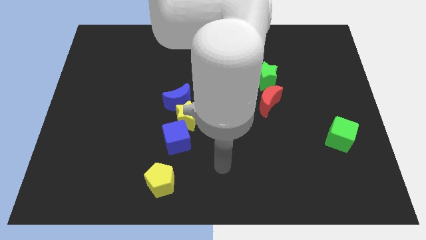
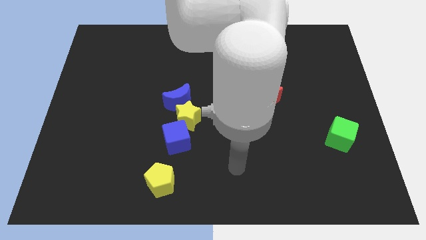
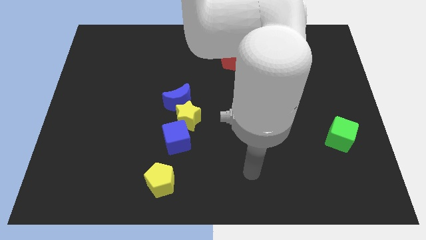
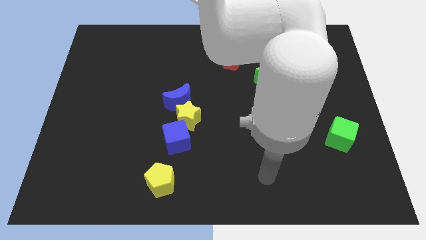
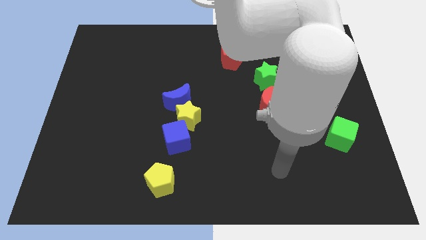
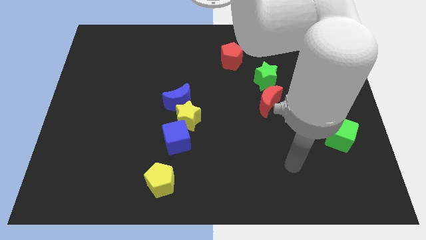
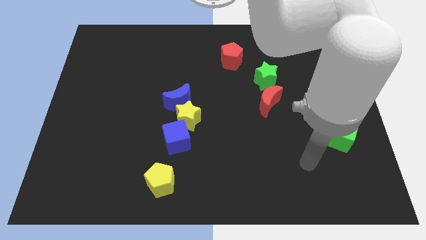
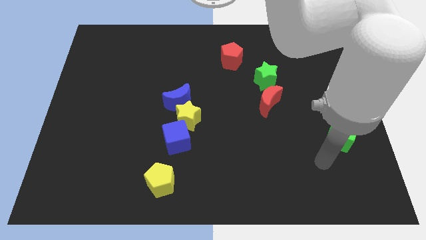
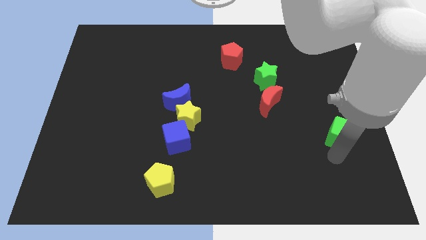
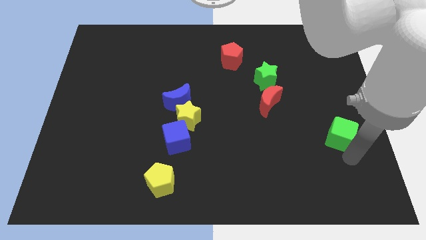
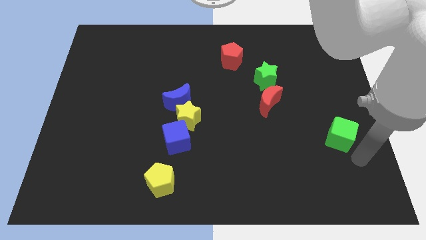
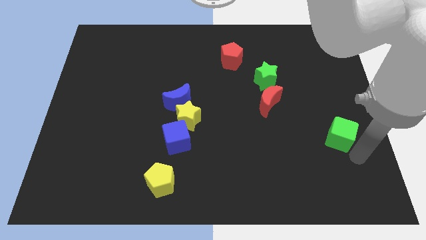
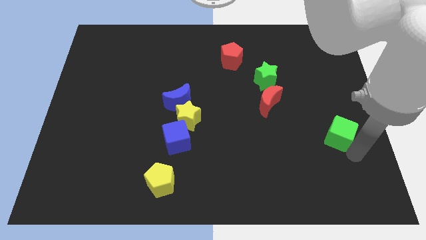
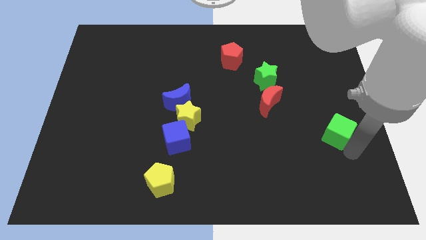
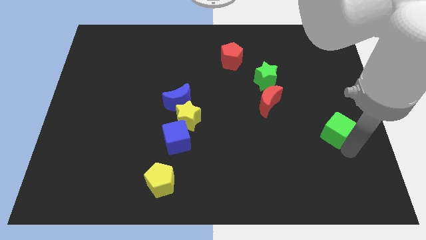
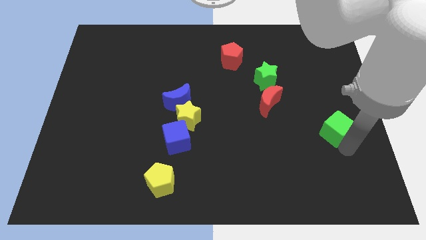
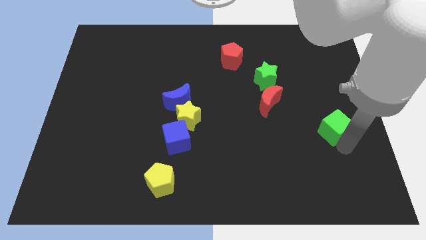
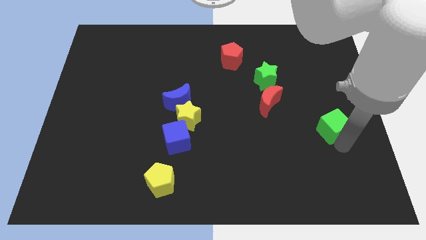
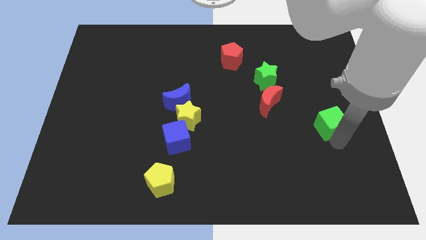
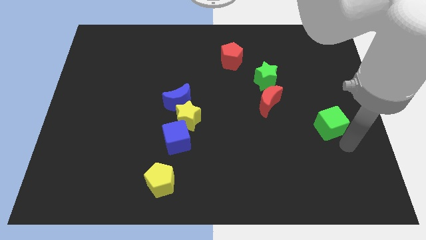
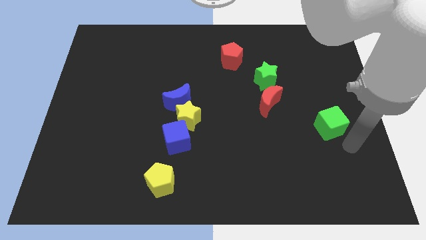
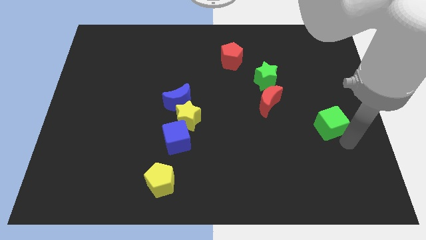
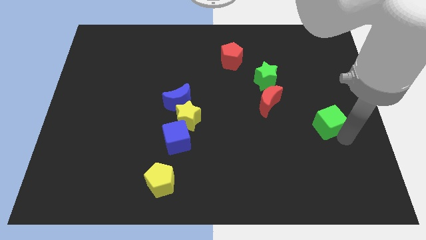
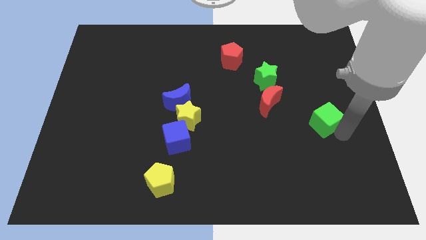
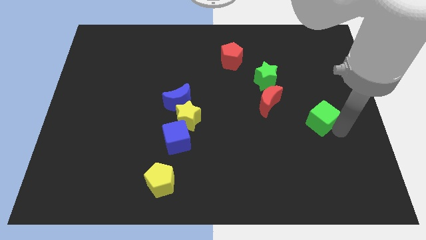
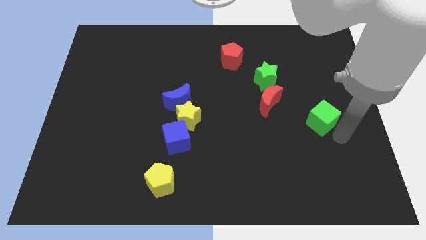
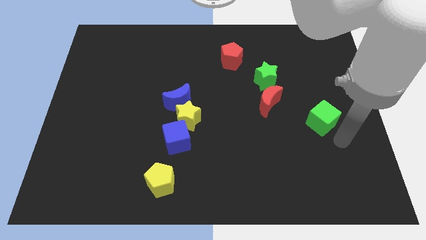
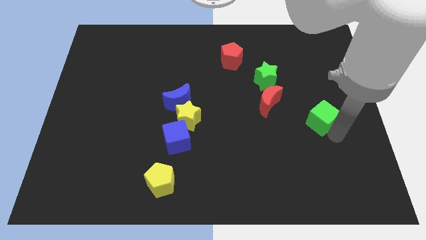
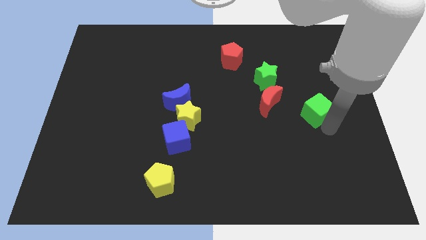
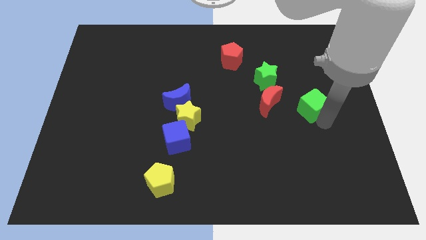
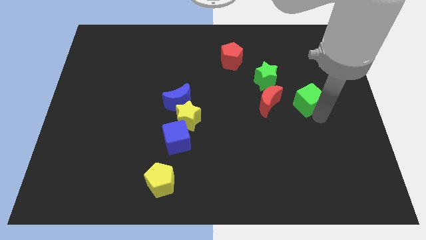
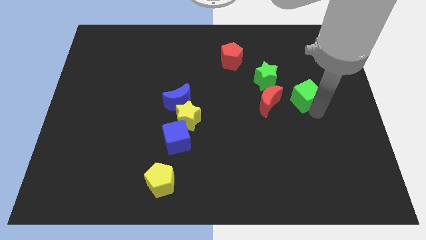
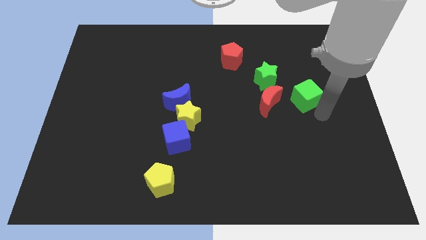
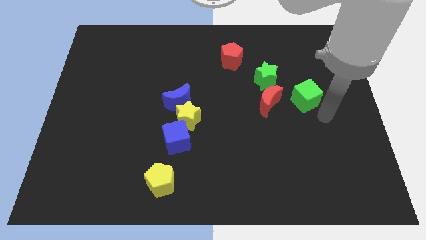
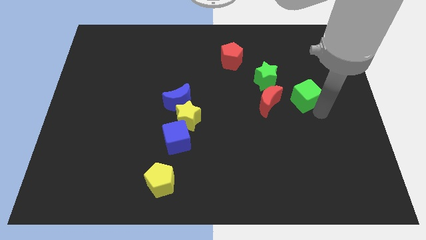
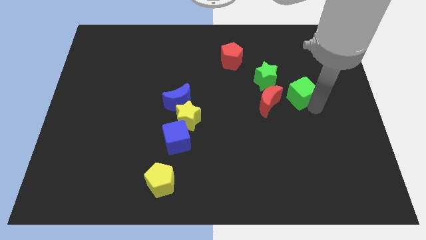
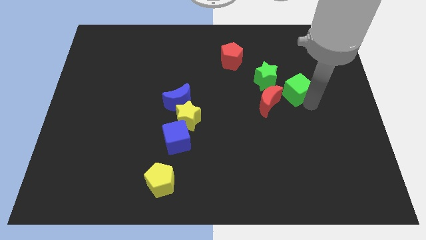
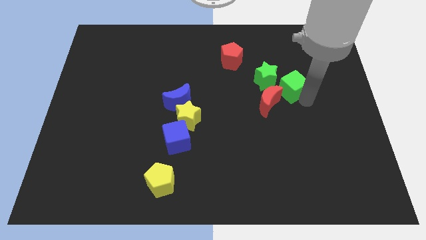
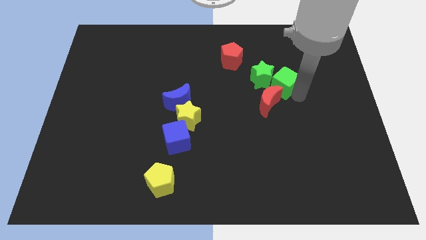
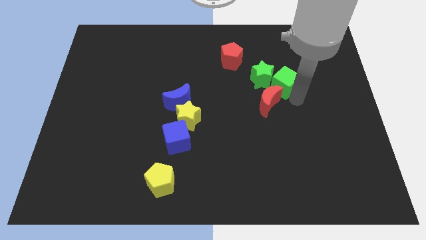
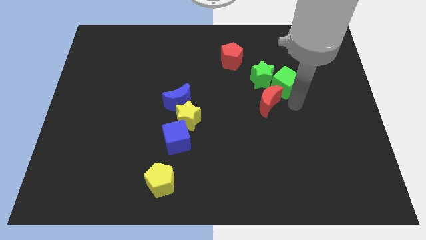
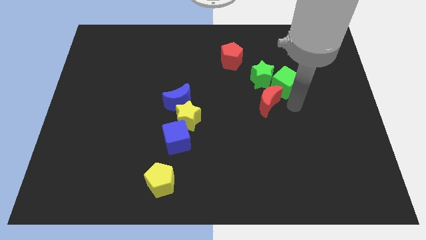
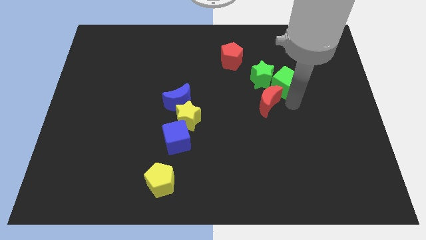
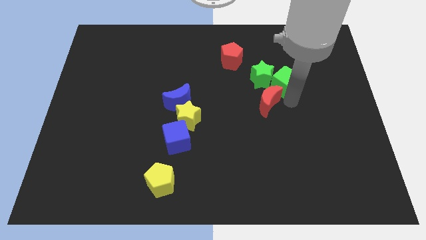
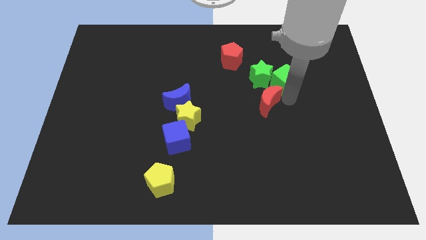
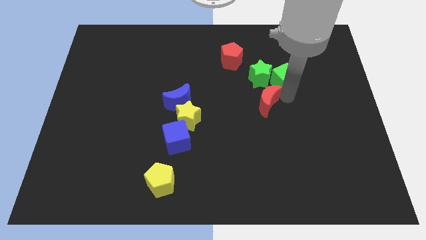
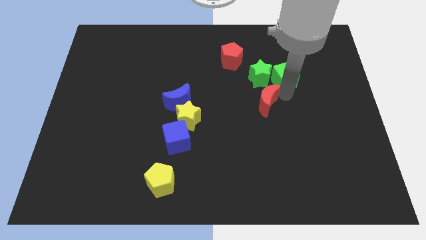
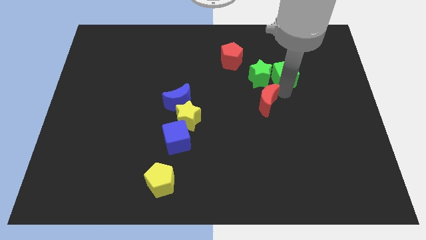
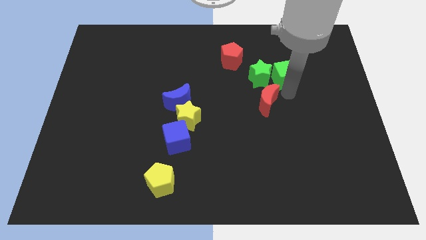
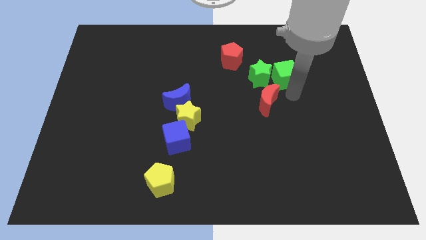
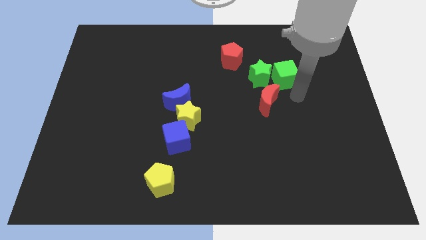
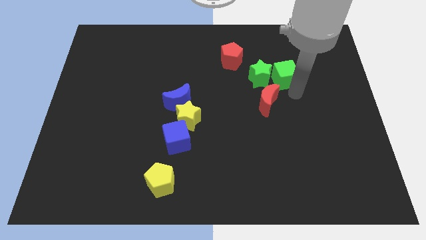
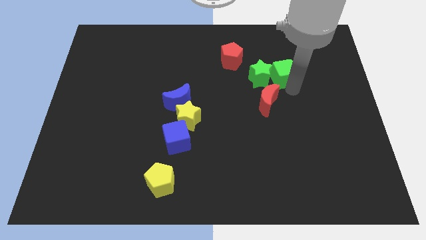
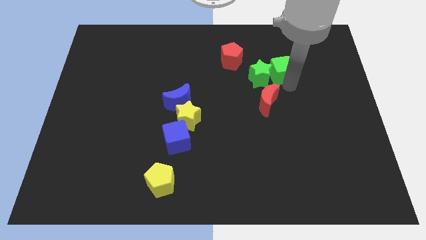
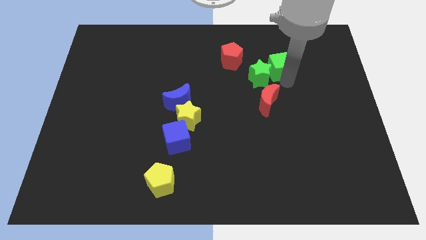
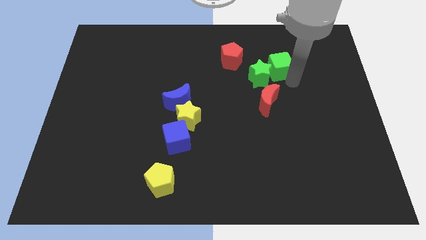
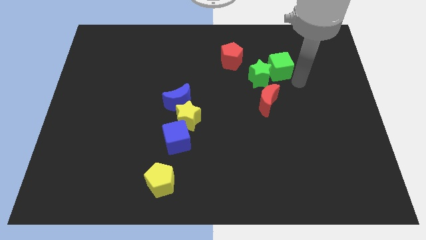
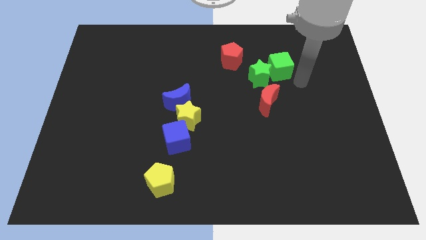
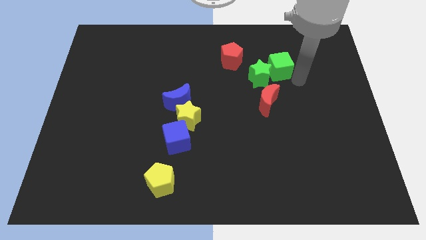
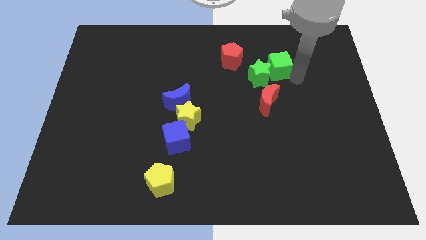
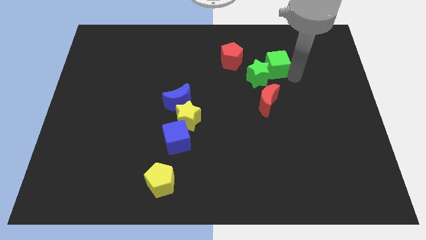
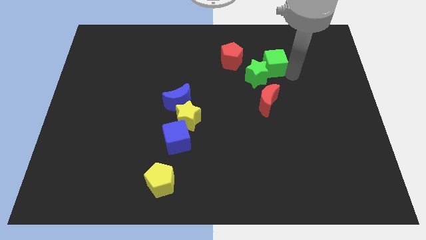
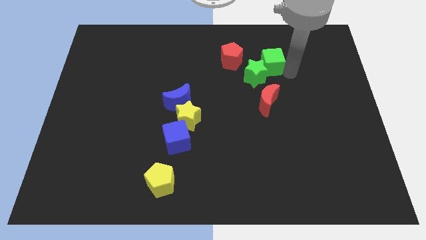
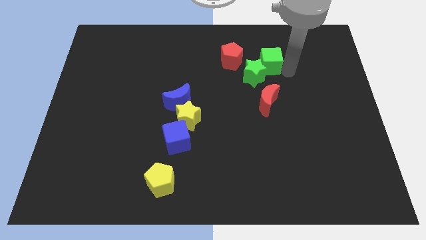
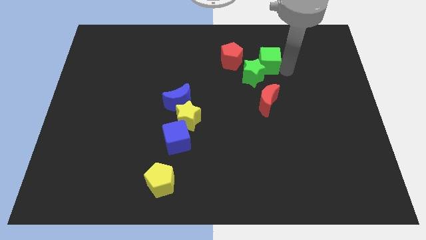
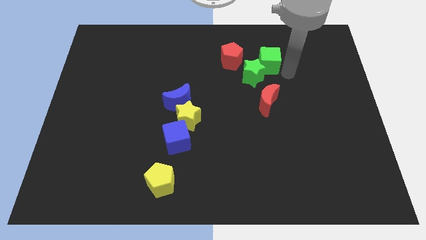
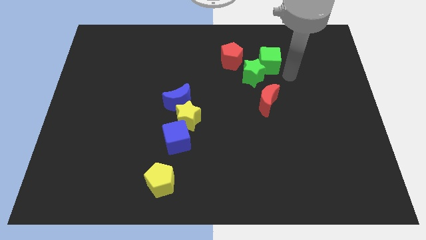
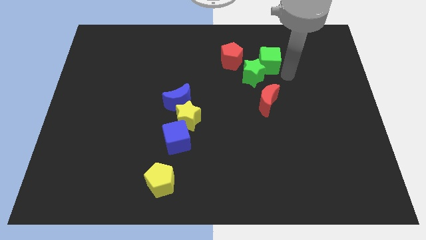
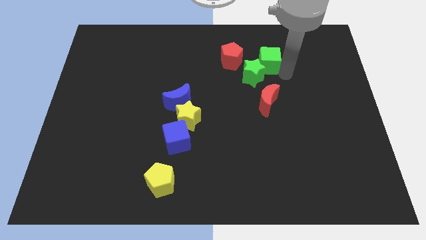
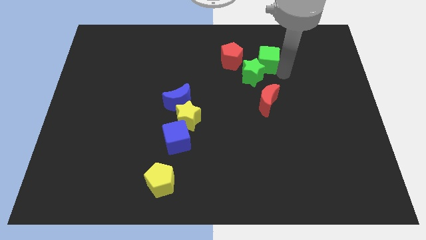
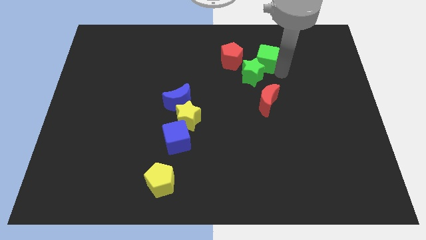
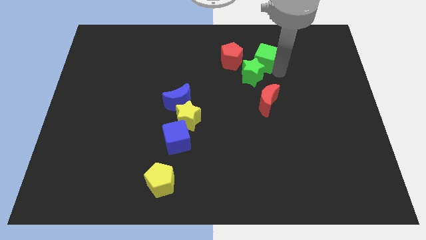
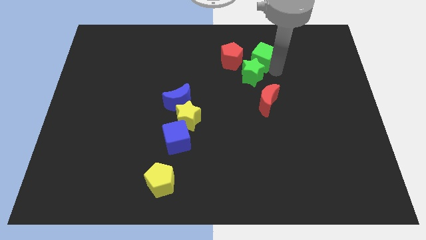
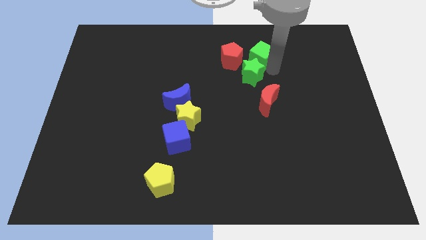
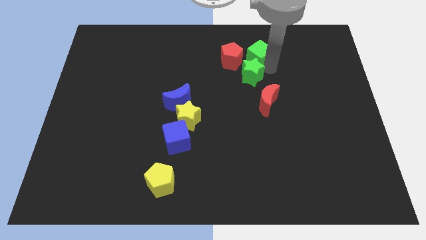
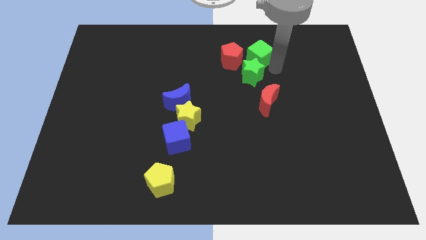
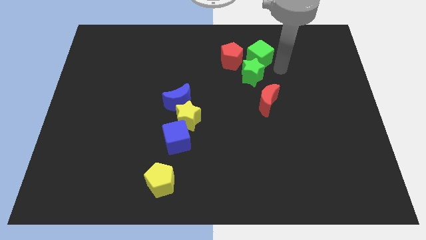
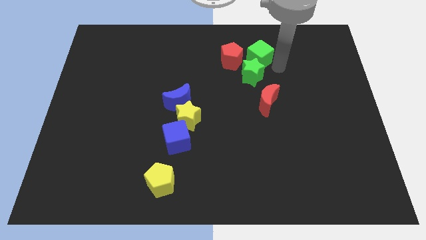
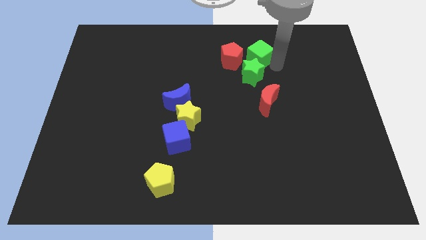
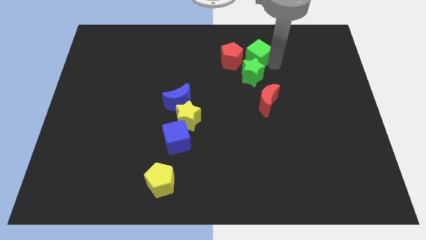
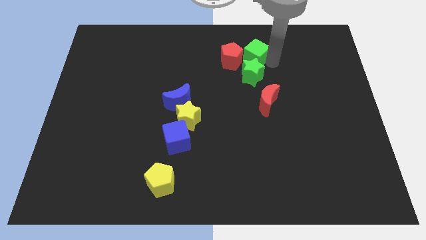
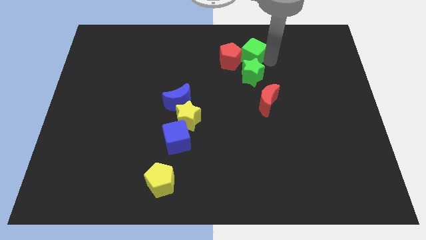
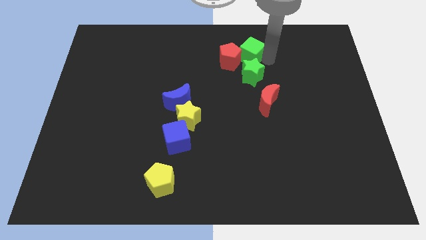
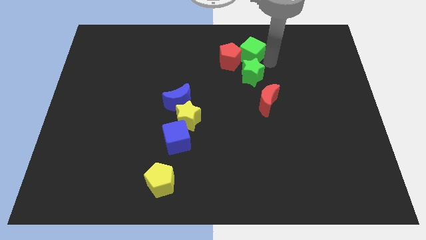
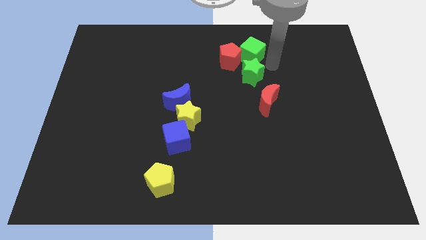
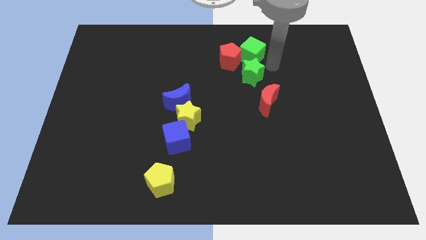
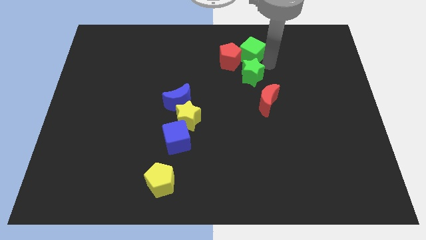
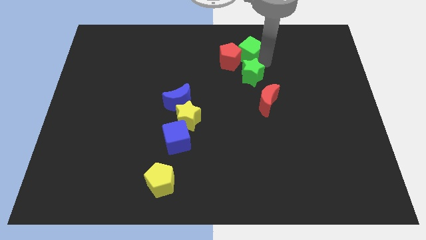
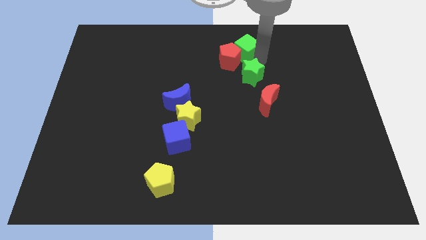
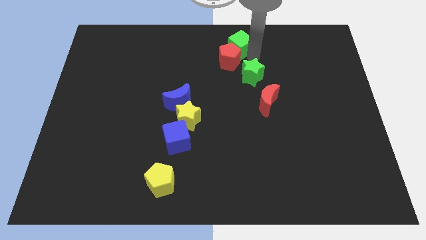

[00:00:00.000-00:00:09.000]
put the green cube to the top
